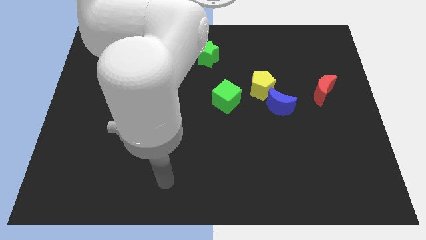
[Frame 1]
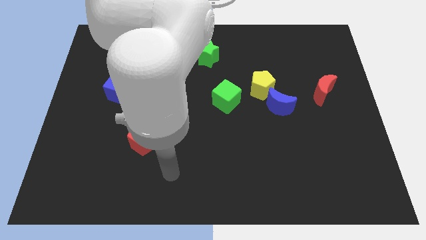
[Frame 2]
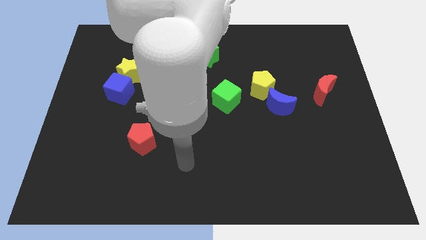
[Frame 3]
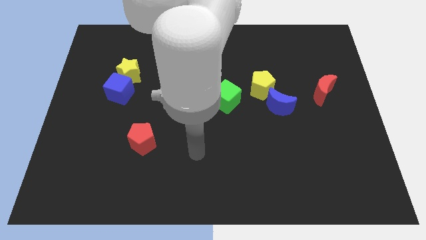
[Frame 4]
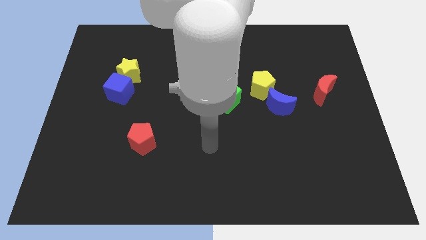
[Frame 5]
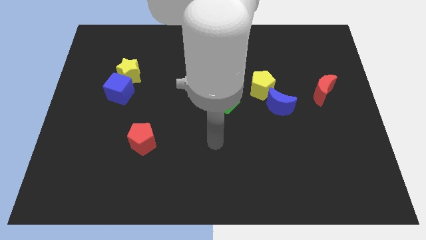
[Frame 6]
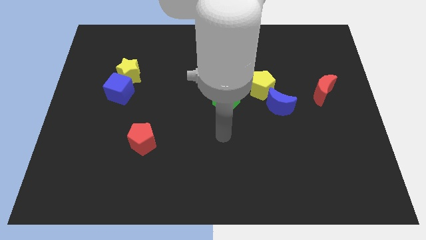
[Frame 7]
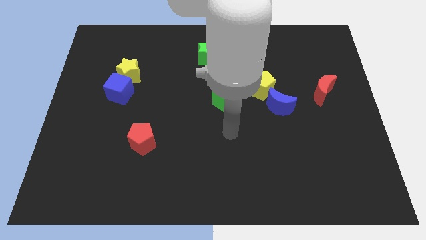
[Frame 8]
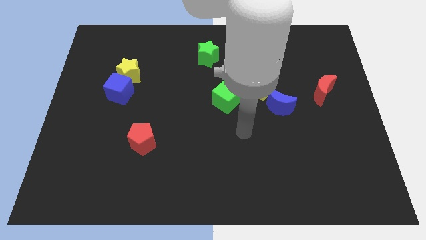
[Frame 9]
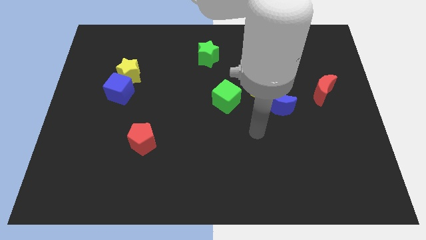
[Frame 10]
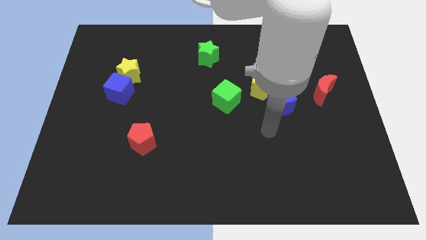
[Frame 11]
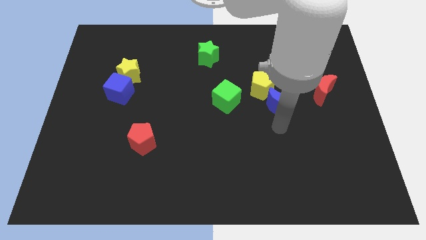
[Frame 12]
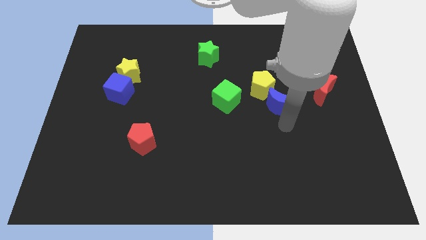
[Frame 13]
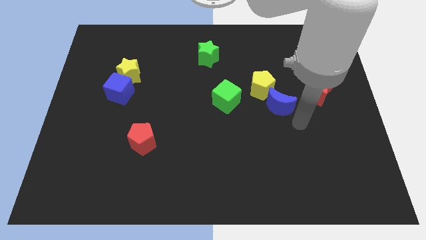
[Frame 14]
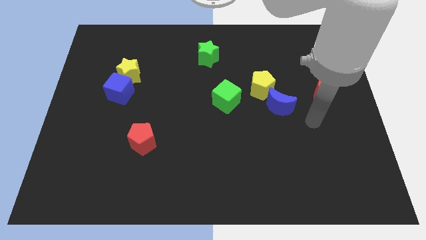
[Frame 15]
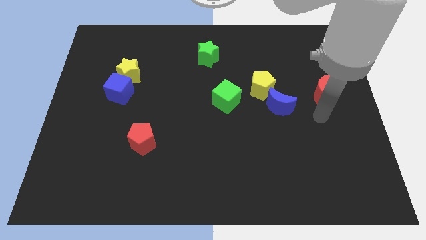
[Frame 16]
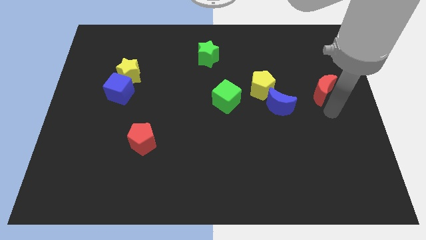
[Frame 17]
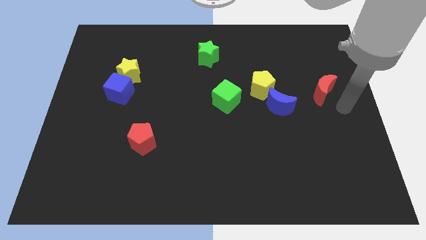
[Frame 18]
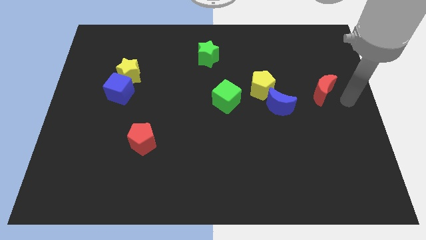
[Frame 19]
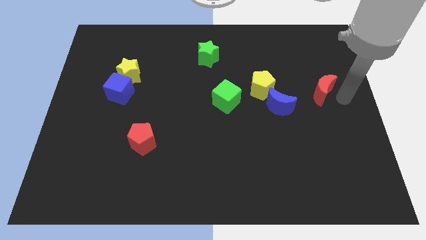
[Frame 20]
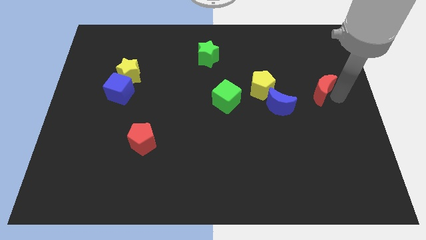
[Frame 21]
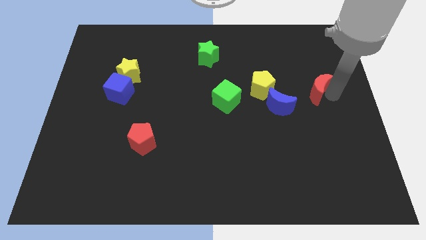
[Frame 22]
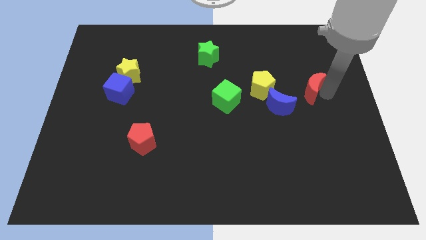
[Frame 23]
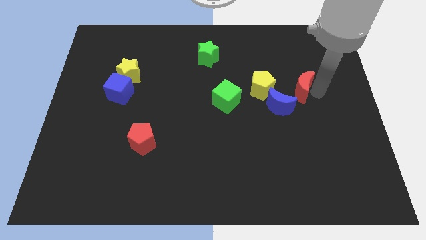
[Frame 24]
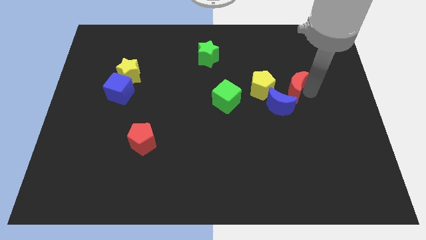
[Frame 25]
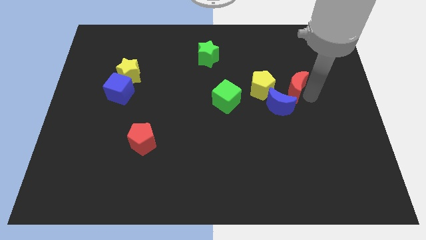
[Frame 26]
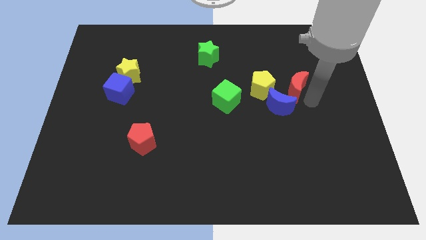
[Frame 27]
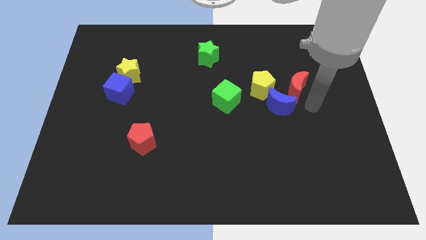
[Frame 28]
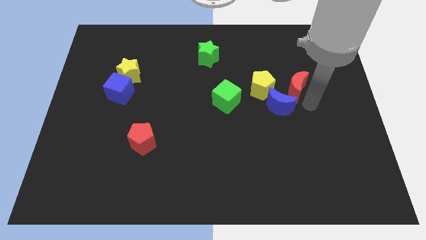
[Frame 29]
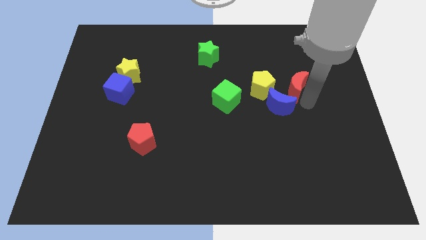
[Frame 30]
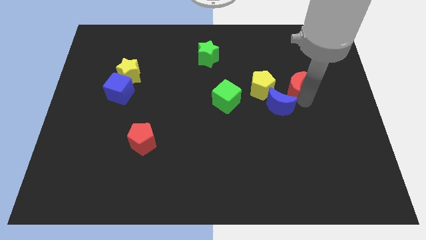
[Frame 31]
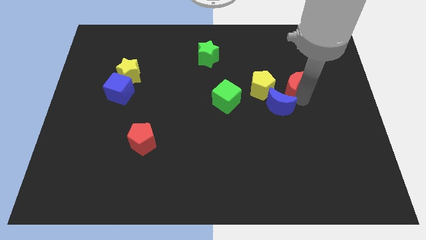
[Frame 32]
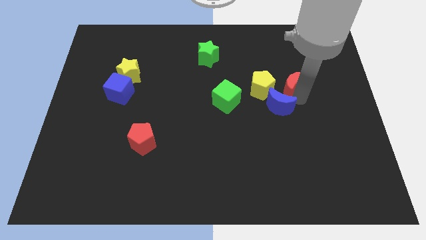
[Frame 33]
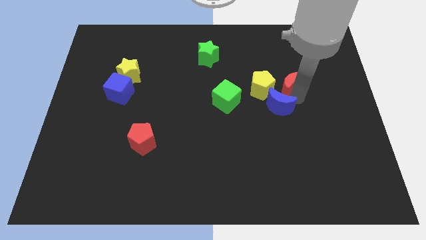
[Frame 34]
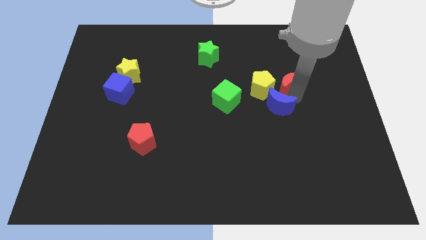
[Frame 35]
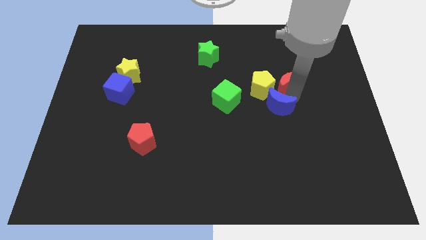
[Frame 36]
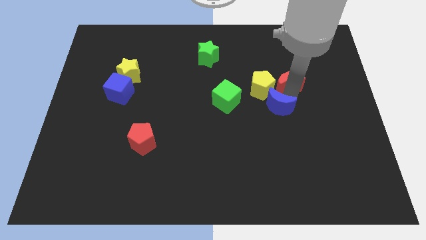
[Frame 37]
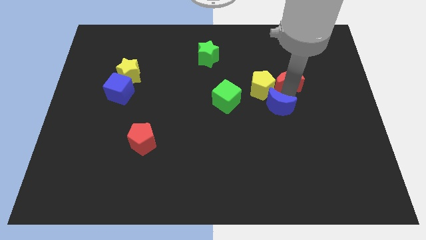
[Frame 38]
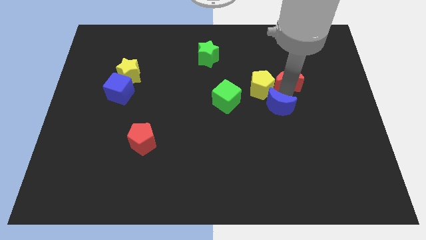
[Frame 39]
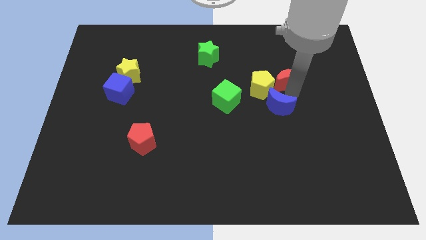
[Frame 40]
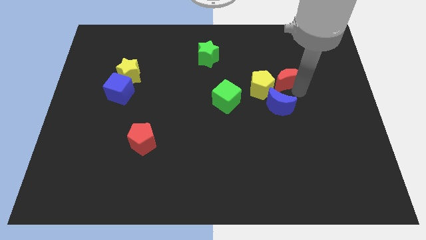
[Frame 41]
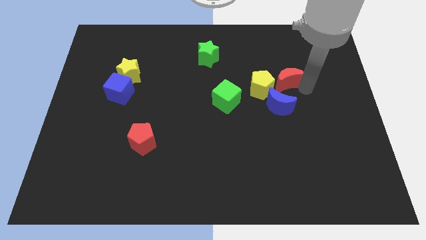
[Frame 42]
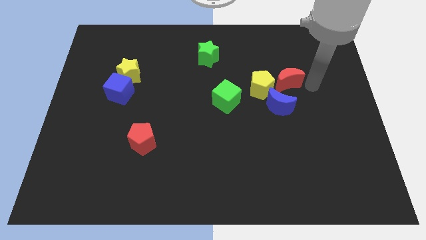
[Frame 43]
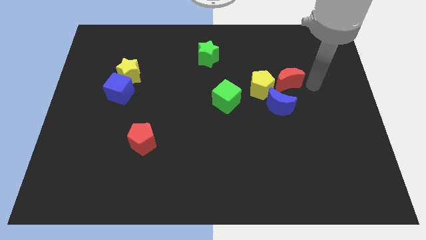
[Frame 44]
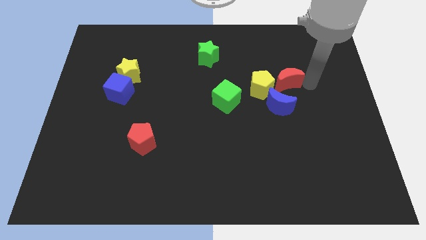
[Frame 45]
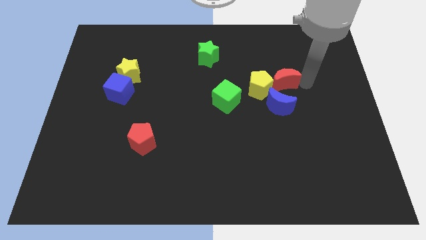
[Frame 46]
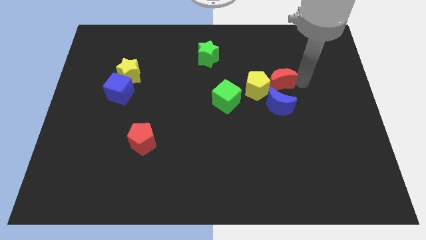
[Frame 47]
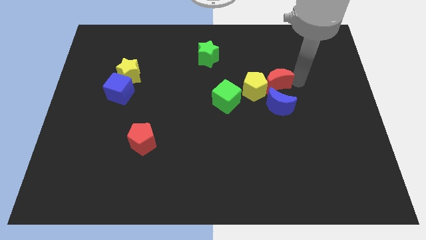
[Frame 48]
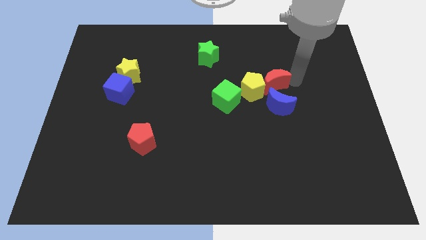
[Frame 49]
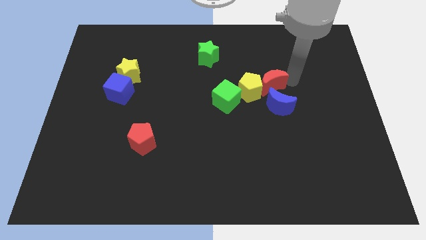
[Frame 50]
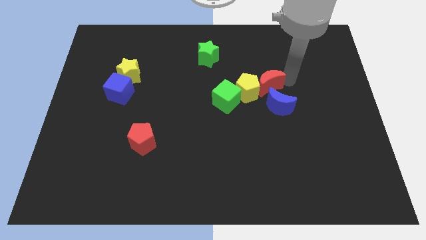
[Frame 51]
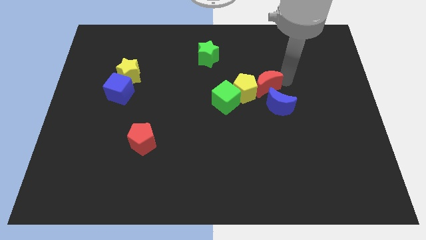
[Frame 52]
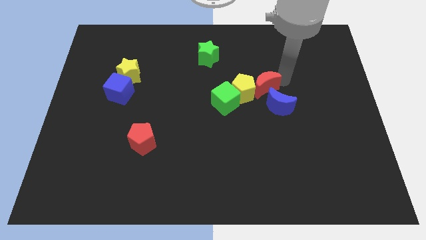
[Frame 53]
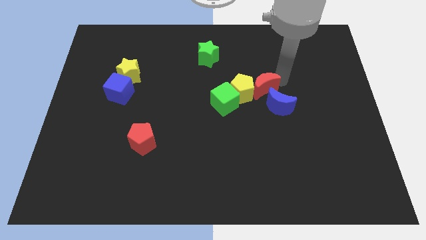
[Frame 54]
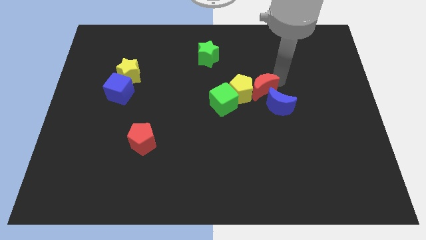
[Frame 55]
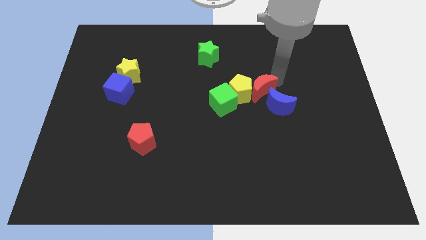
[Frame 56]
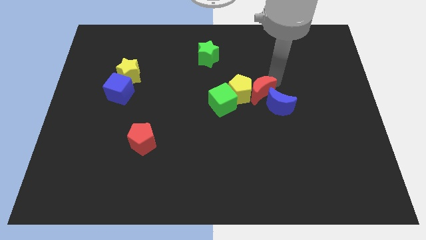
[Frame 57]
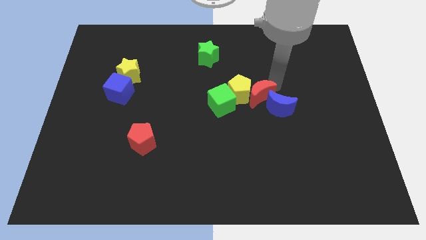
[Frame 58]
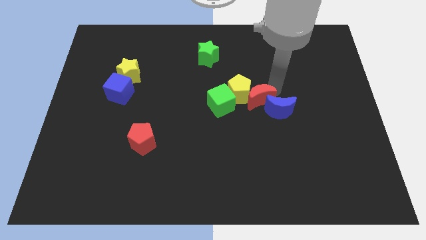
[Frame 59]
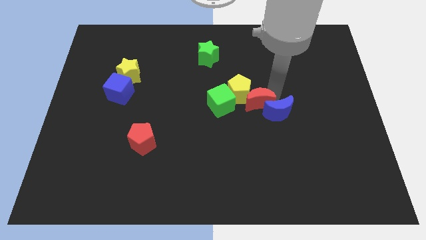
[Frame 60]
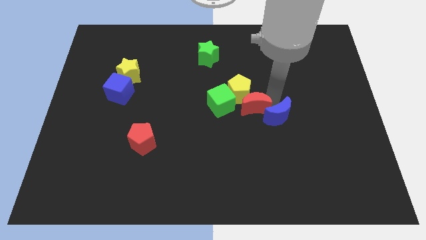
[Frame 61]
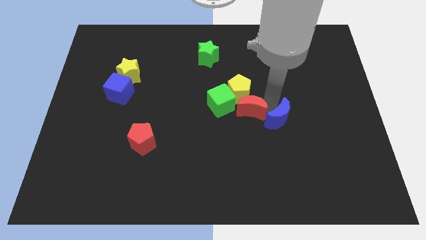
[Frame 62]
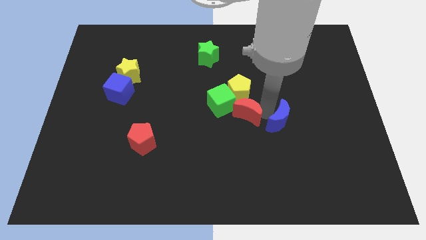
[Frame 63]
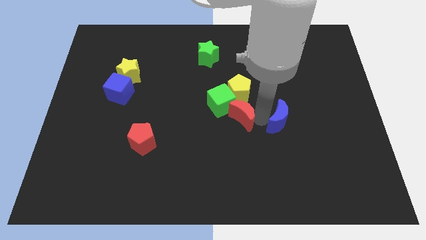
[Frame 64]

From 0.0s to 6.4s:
slide the red moon to the green cube
